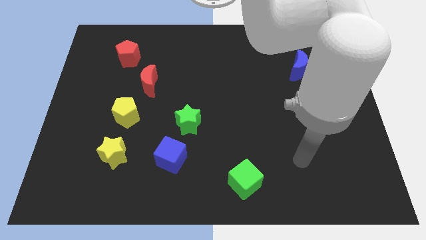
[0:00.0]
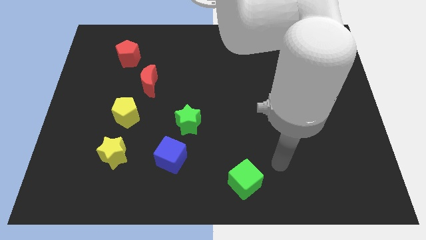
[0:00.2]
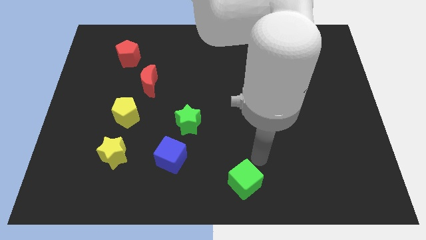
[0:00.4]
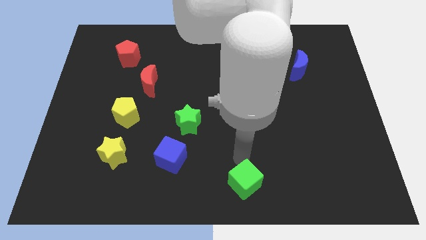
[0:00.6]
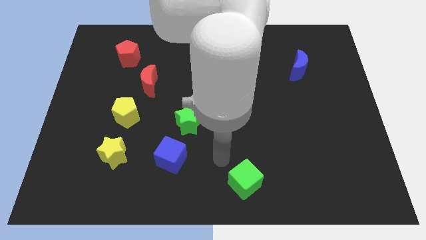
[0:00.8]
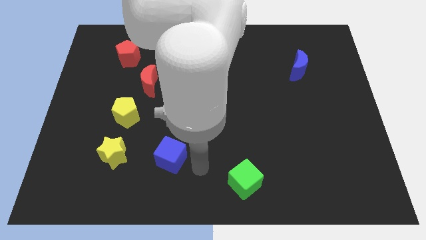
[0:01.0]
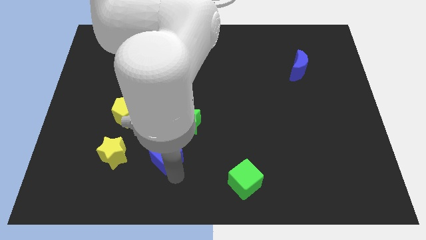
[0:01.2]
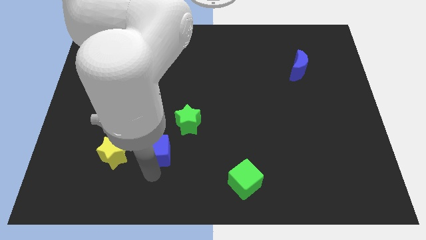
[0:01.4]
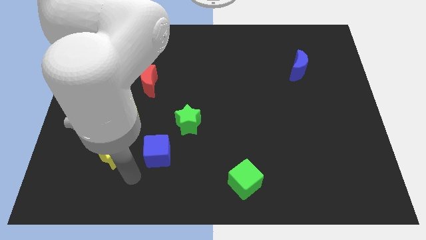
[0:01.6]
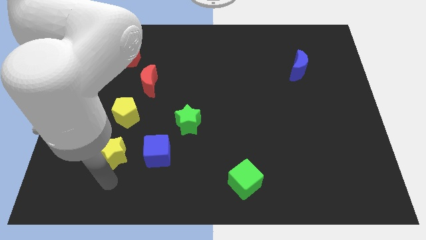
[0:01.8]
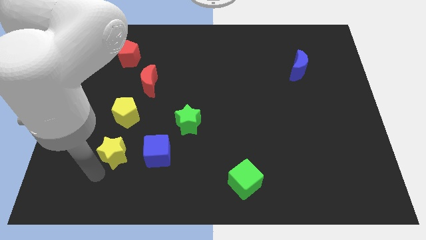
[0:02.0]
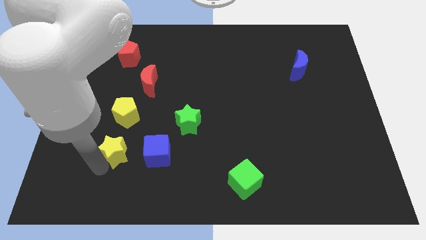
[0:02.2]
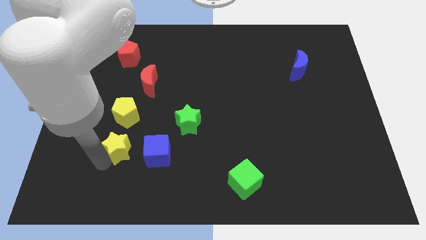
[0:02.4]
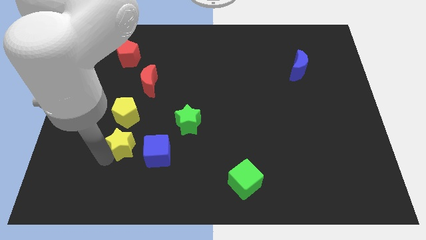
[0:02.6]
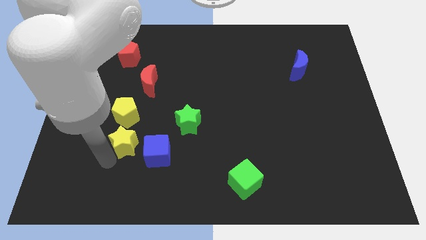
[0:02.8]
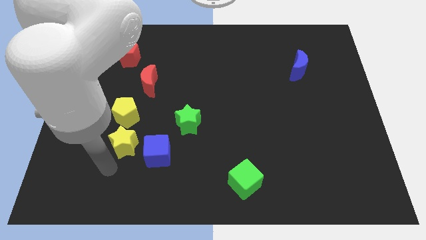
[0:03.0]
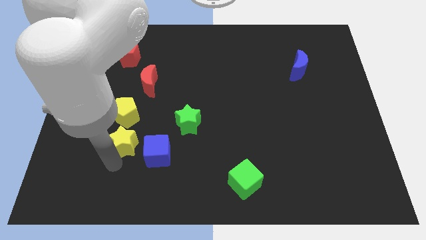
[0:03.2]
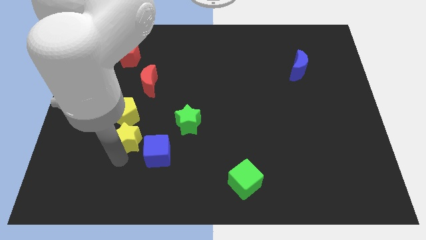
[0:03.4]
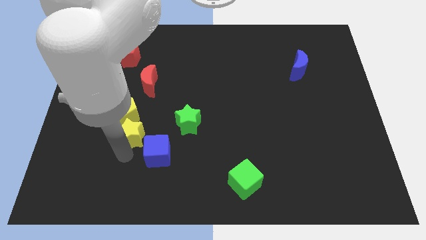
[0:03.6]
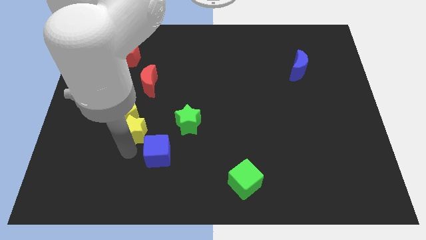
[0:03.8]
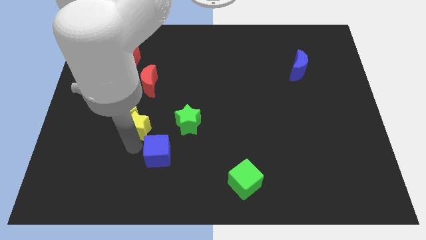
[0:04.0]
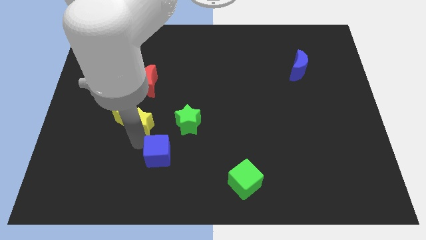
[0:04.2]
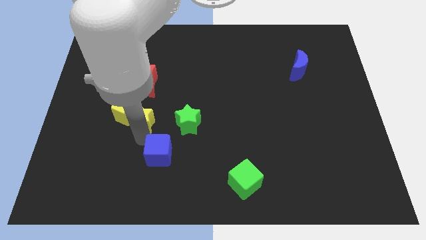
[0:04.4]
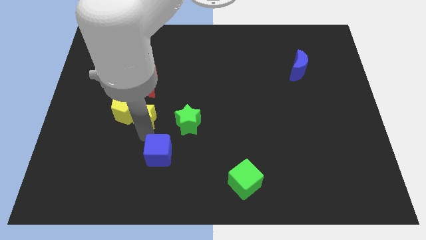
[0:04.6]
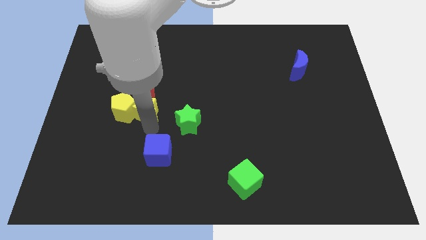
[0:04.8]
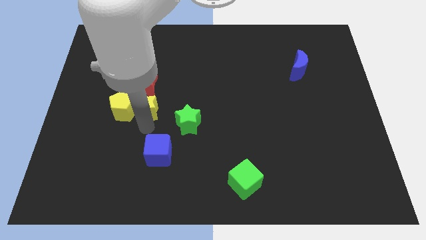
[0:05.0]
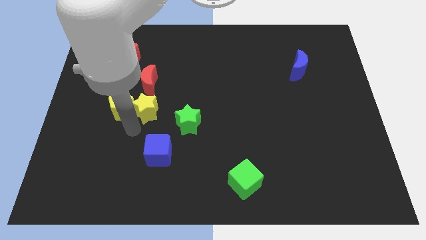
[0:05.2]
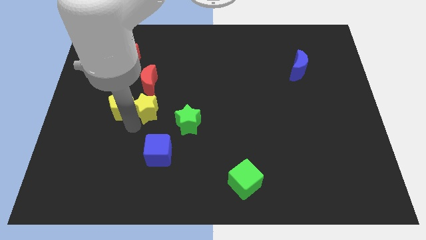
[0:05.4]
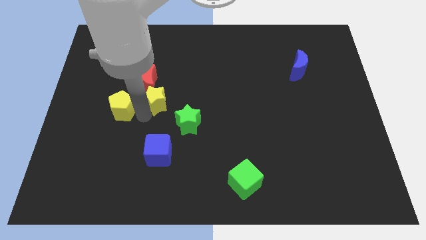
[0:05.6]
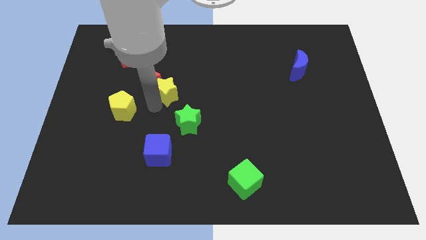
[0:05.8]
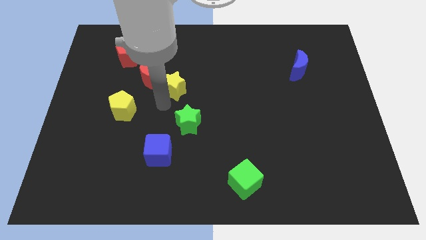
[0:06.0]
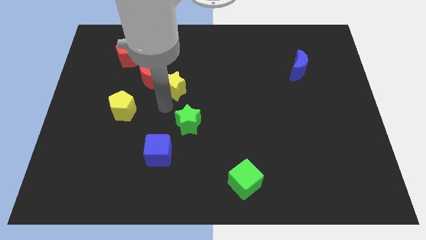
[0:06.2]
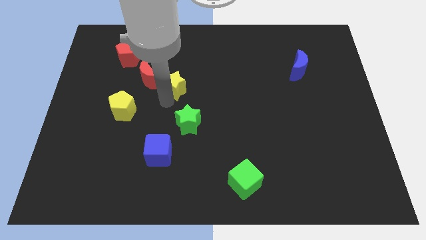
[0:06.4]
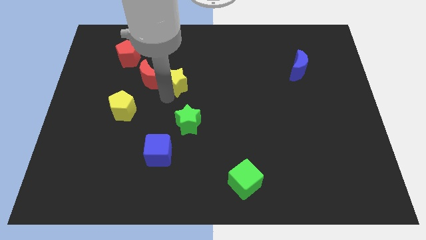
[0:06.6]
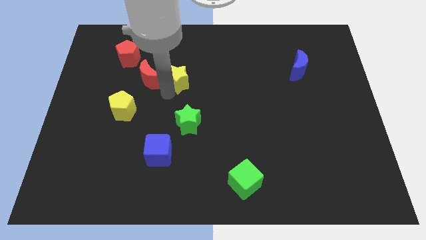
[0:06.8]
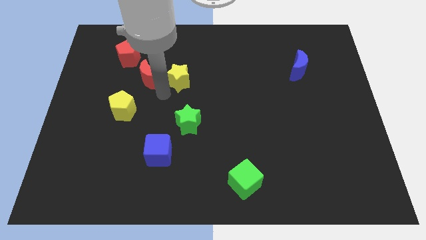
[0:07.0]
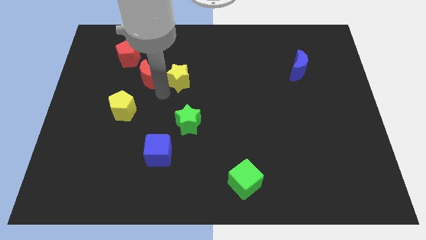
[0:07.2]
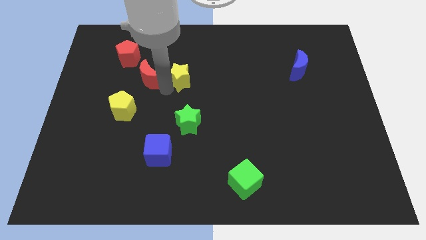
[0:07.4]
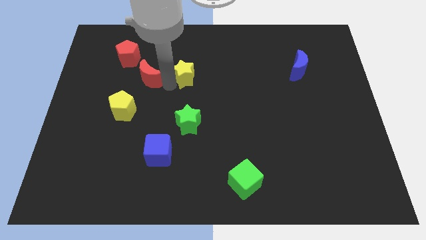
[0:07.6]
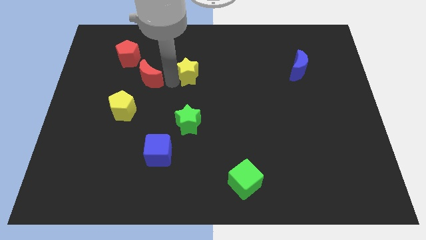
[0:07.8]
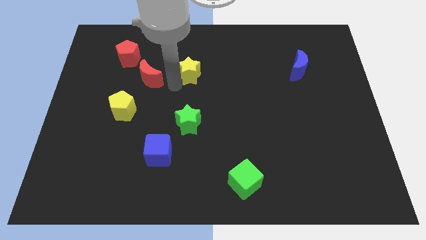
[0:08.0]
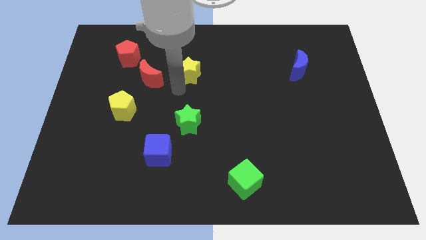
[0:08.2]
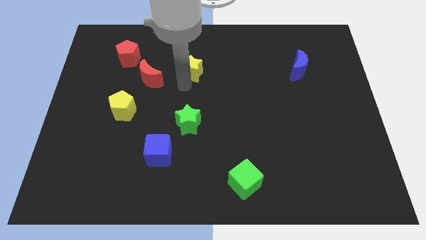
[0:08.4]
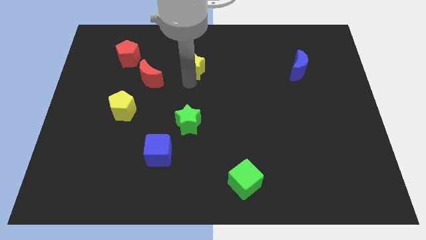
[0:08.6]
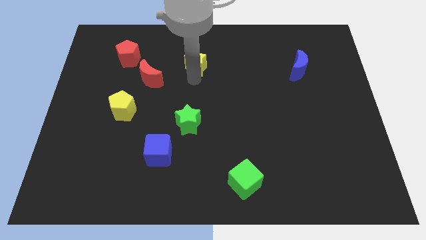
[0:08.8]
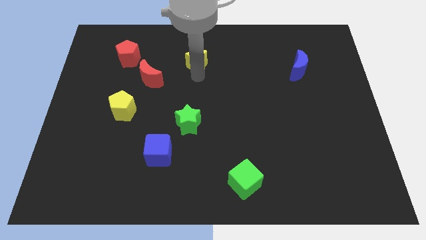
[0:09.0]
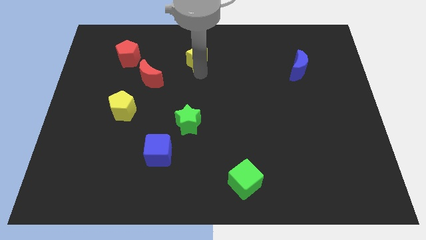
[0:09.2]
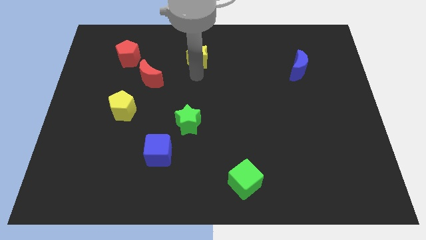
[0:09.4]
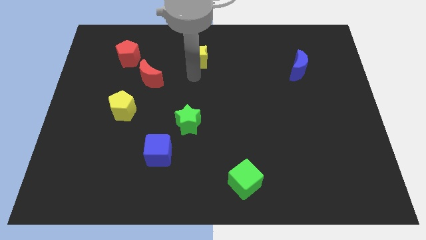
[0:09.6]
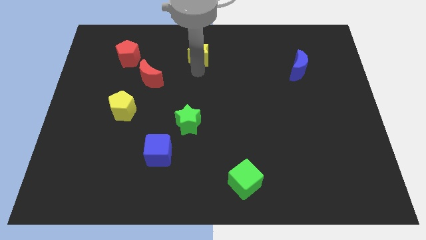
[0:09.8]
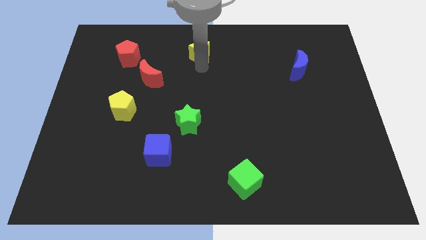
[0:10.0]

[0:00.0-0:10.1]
put the yellow star to the towards your base

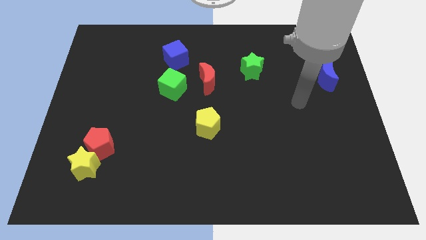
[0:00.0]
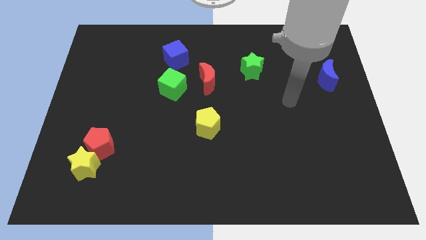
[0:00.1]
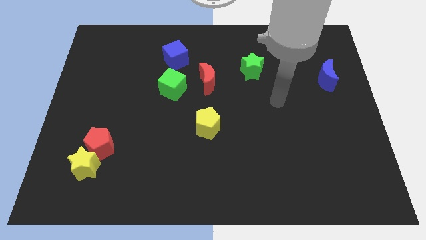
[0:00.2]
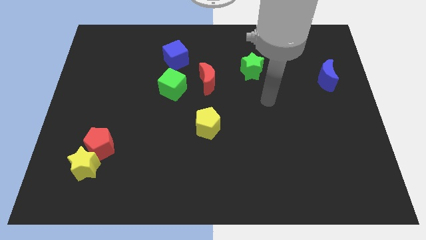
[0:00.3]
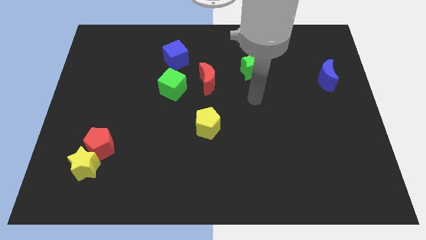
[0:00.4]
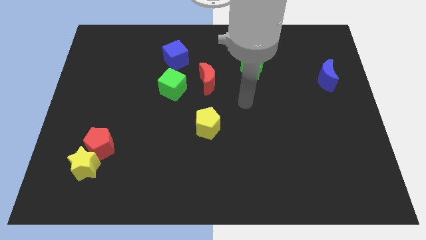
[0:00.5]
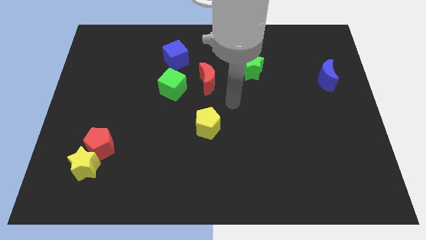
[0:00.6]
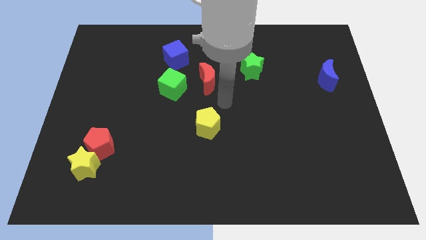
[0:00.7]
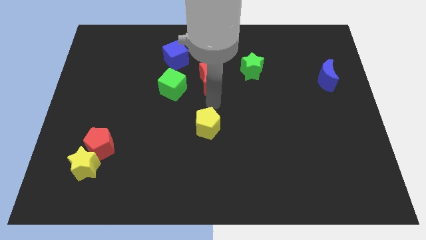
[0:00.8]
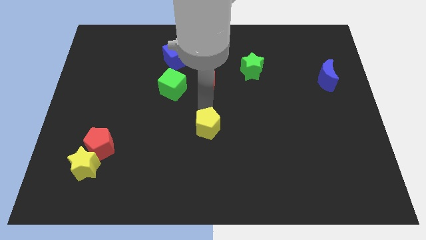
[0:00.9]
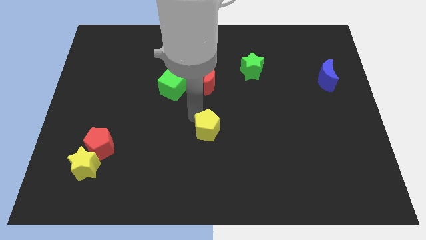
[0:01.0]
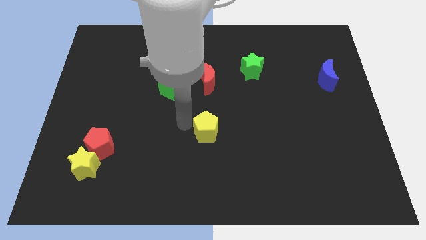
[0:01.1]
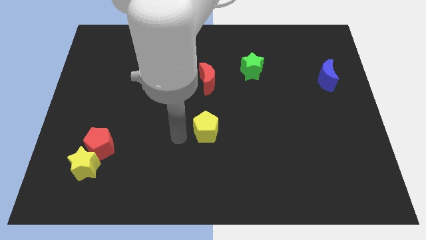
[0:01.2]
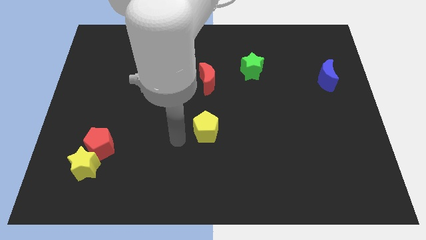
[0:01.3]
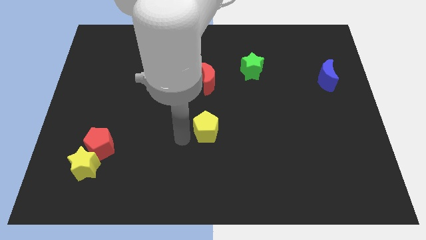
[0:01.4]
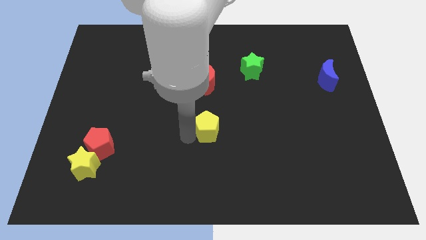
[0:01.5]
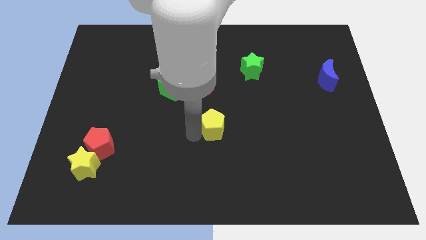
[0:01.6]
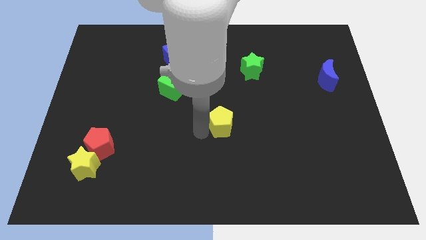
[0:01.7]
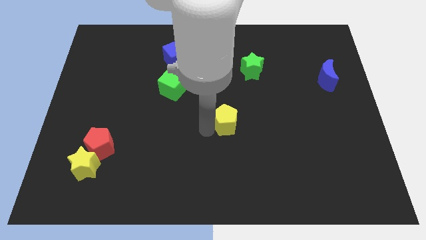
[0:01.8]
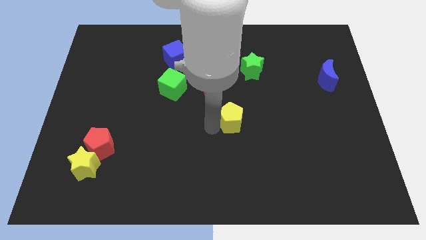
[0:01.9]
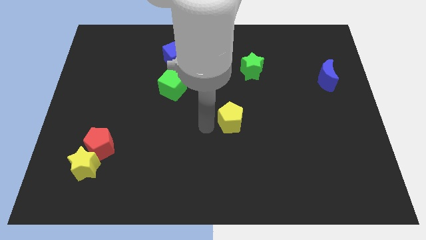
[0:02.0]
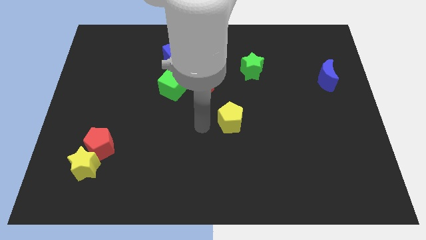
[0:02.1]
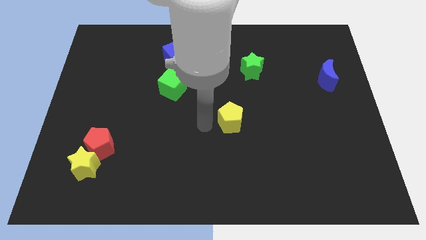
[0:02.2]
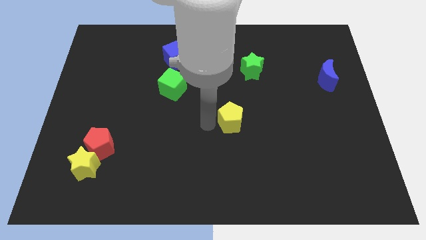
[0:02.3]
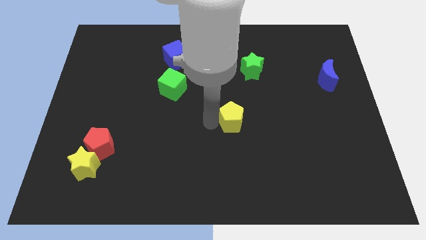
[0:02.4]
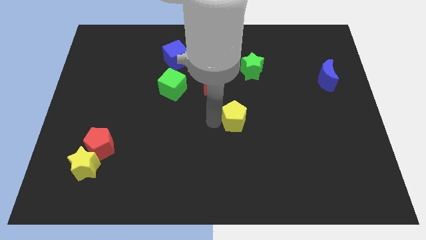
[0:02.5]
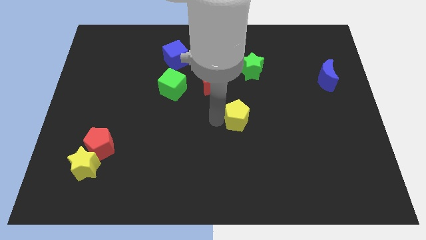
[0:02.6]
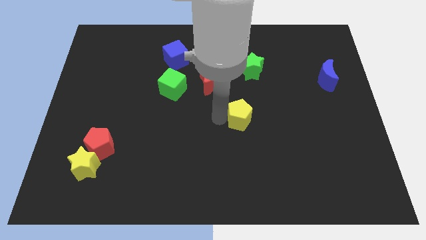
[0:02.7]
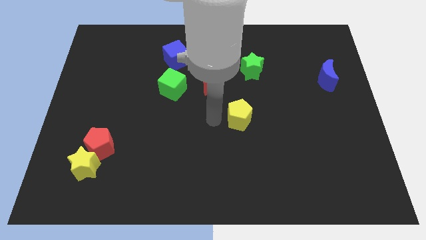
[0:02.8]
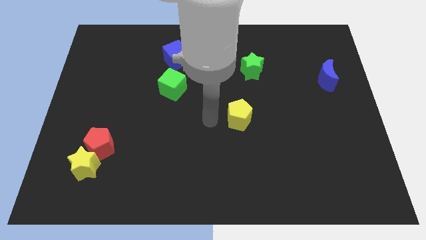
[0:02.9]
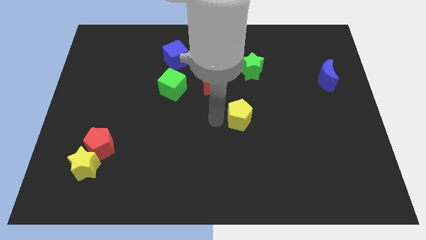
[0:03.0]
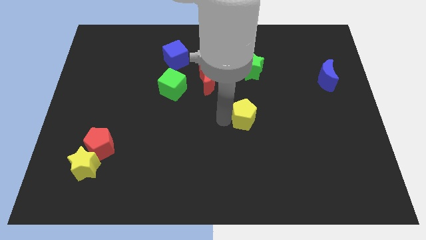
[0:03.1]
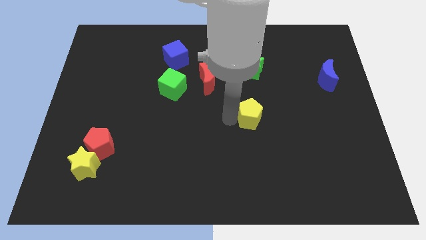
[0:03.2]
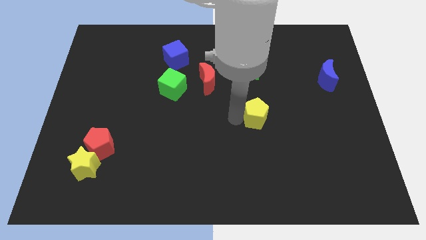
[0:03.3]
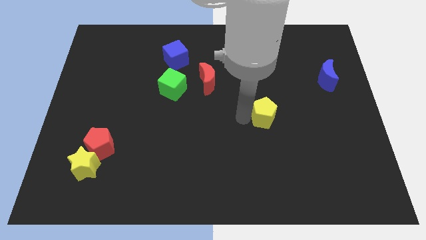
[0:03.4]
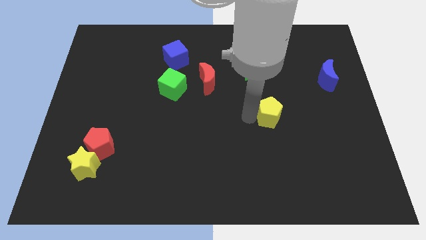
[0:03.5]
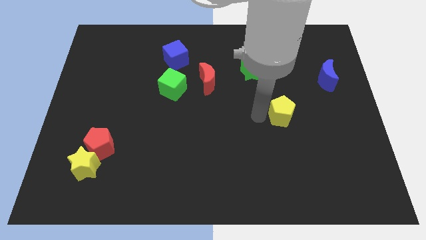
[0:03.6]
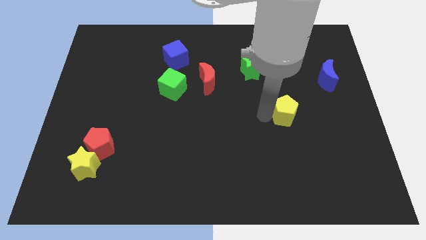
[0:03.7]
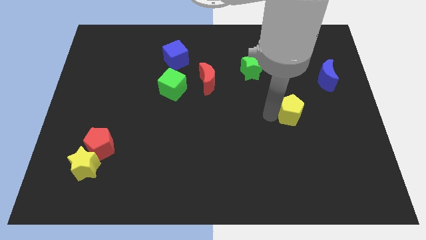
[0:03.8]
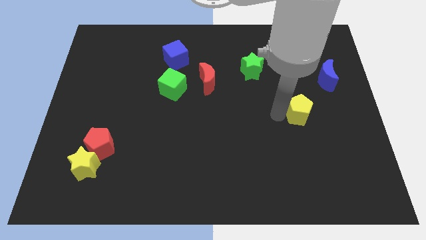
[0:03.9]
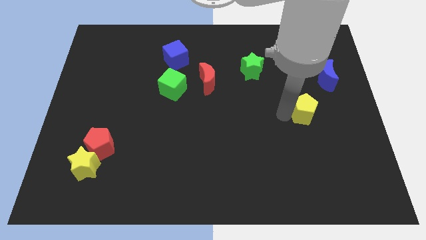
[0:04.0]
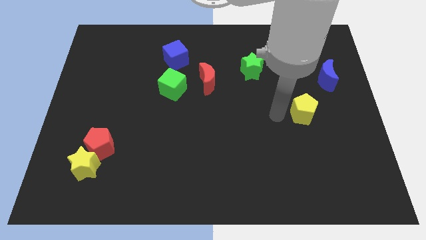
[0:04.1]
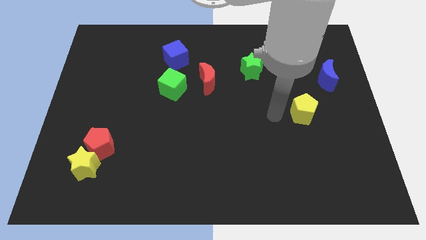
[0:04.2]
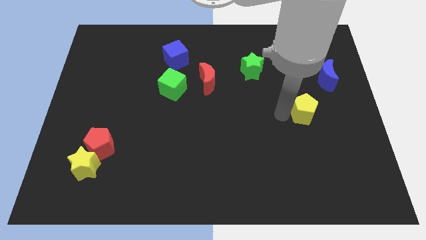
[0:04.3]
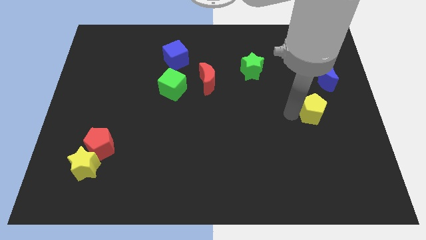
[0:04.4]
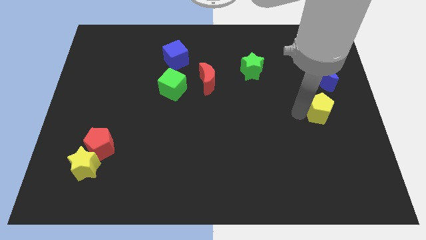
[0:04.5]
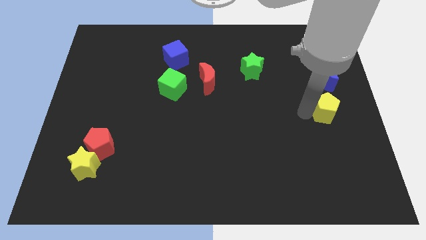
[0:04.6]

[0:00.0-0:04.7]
put the yellow pentagon to the right side of the board
